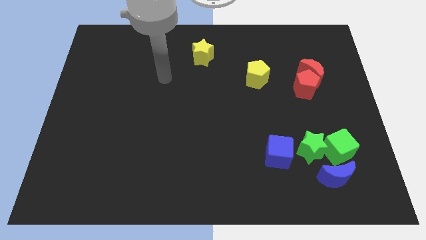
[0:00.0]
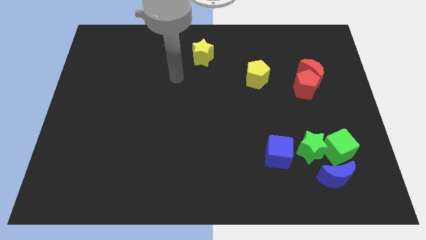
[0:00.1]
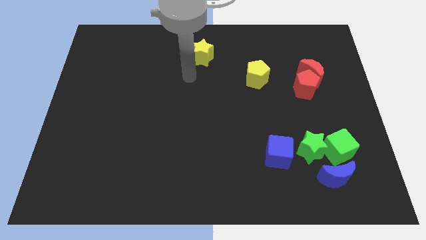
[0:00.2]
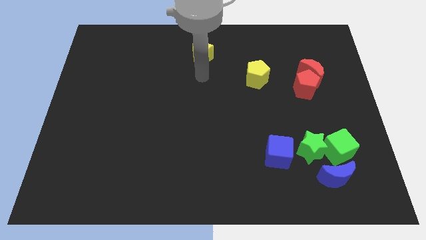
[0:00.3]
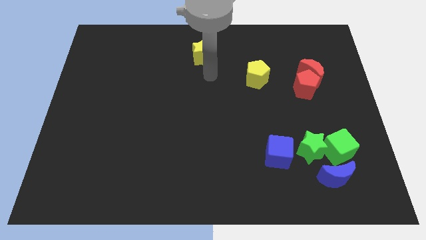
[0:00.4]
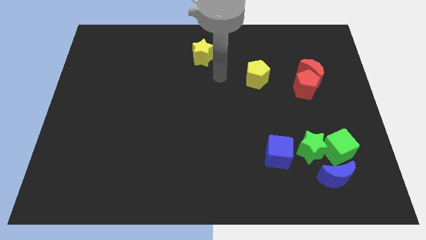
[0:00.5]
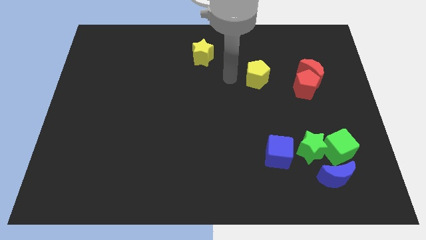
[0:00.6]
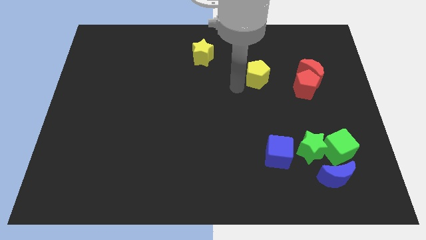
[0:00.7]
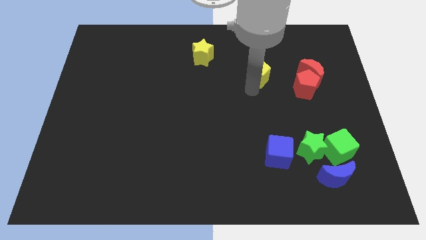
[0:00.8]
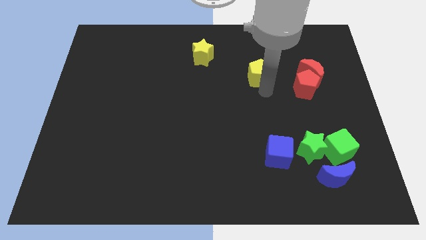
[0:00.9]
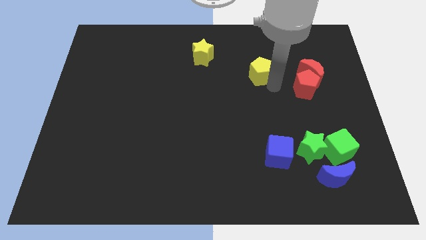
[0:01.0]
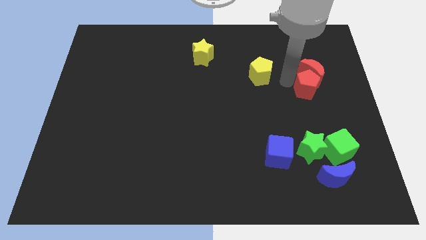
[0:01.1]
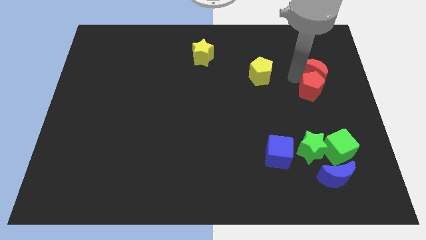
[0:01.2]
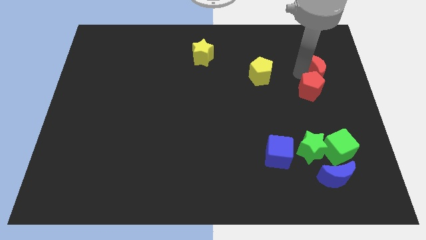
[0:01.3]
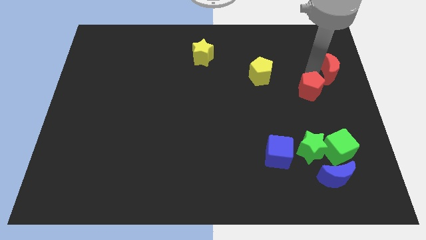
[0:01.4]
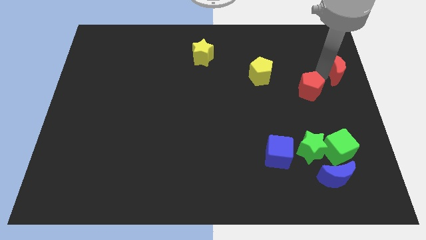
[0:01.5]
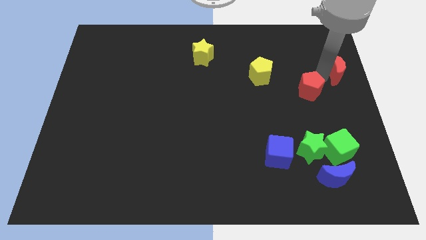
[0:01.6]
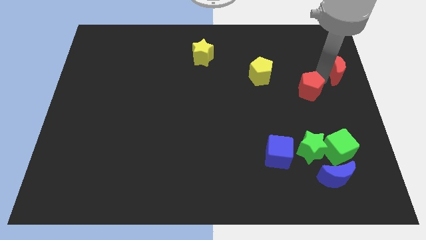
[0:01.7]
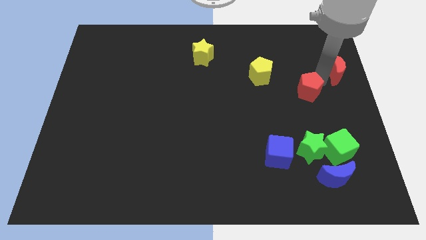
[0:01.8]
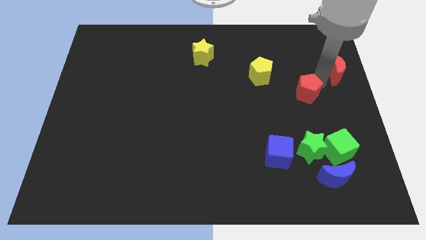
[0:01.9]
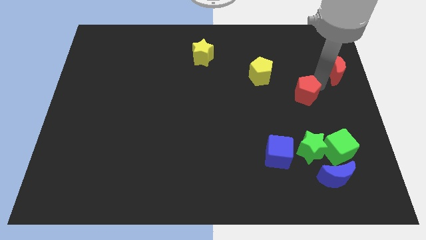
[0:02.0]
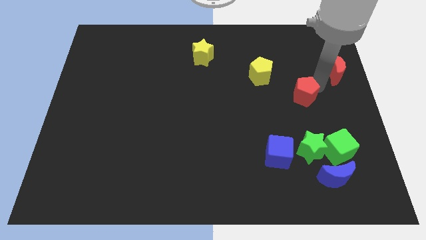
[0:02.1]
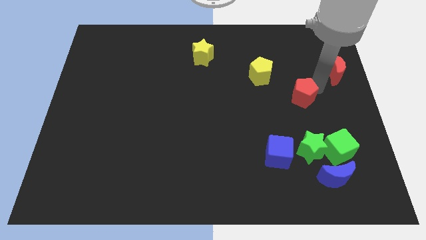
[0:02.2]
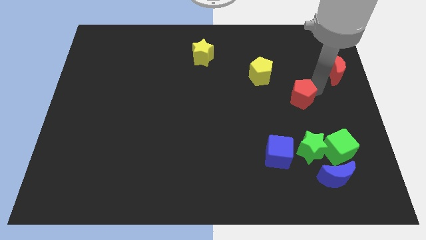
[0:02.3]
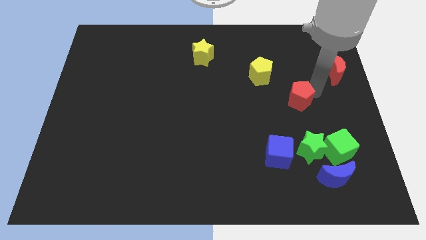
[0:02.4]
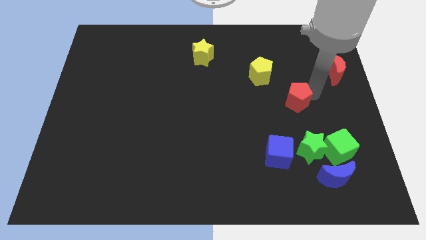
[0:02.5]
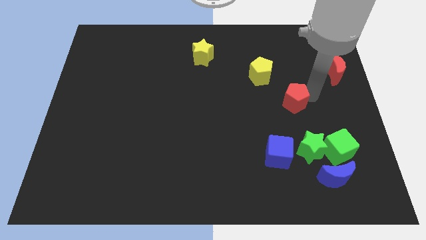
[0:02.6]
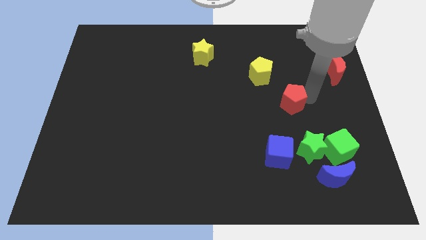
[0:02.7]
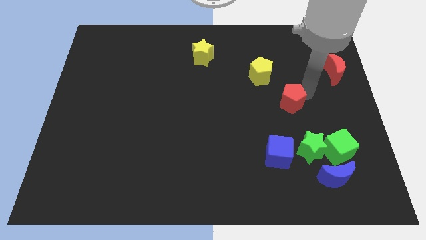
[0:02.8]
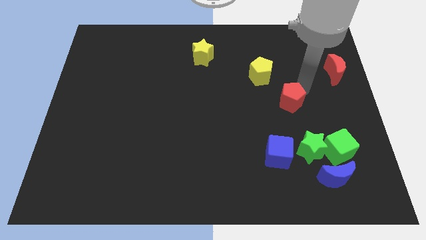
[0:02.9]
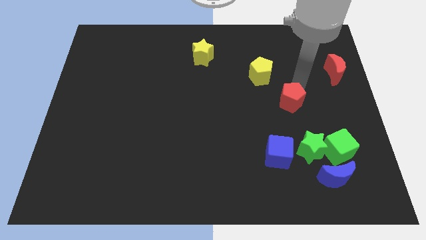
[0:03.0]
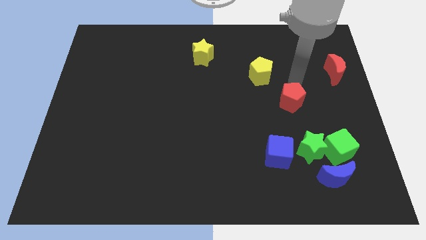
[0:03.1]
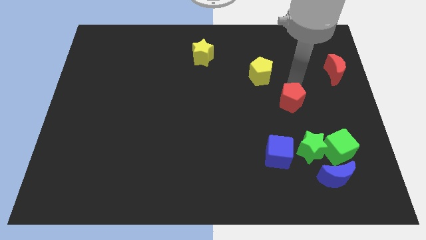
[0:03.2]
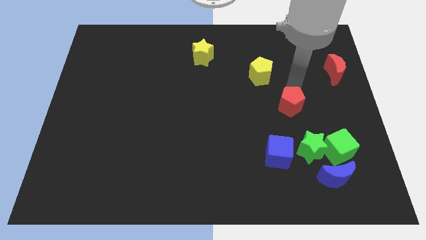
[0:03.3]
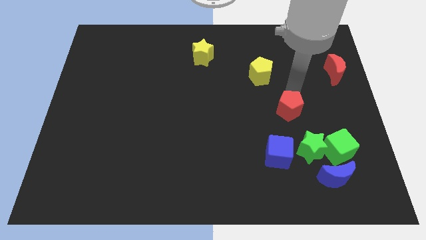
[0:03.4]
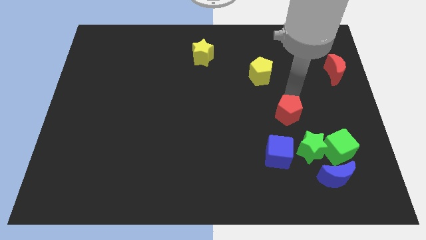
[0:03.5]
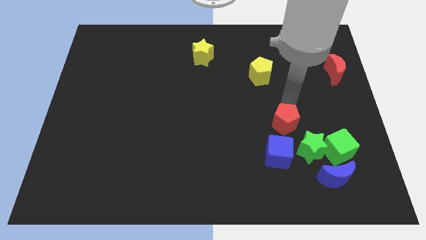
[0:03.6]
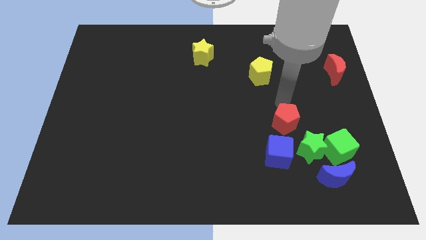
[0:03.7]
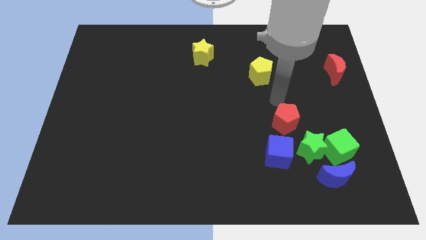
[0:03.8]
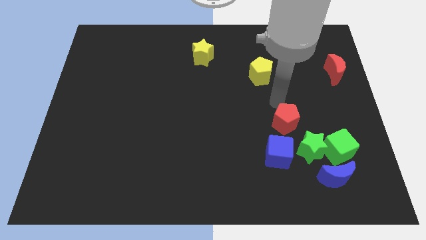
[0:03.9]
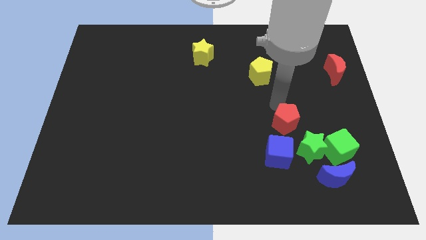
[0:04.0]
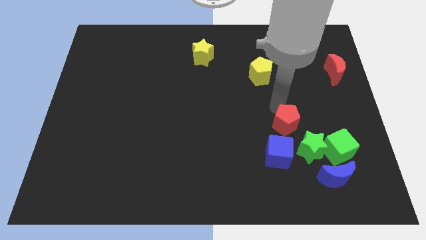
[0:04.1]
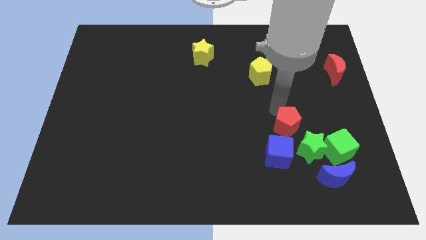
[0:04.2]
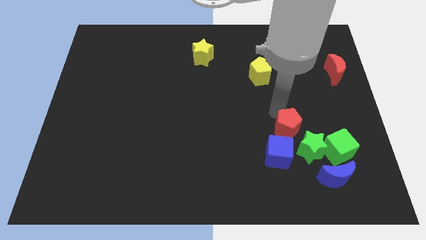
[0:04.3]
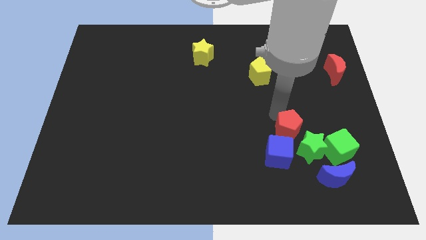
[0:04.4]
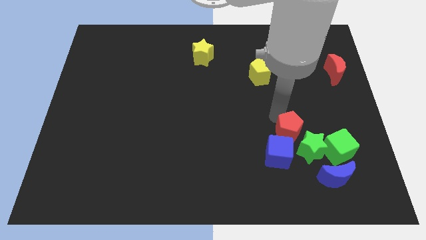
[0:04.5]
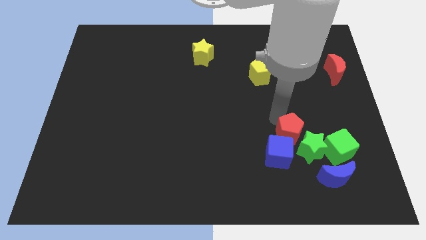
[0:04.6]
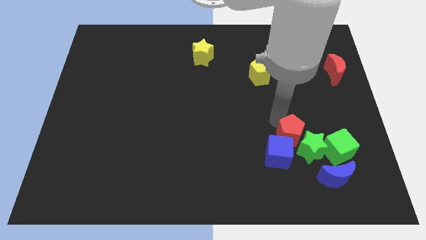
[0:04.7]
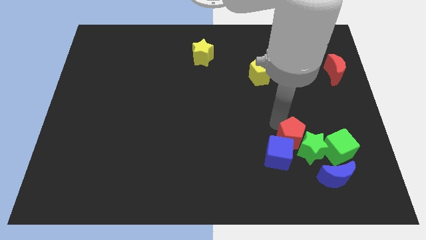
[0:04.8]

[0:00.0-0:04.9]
move the red pentagon to the top left of the blue moon

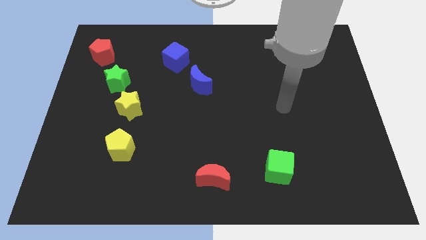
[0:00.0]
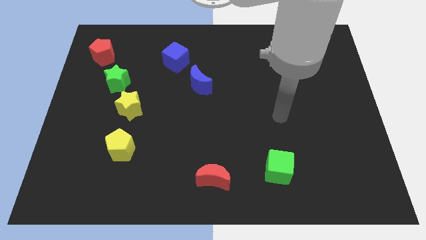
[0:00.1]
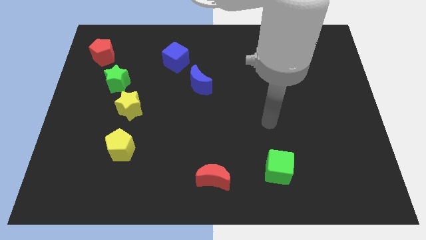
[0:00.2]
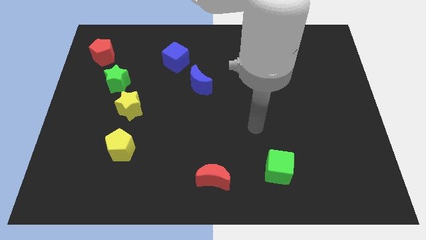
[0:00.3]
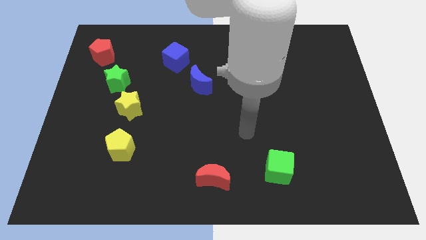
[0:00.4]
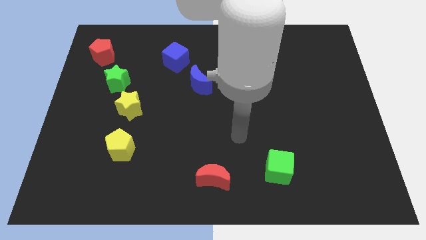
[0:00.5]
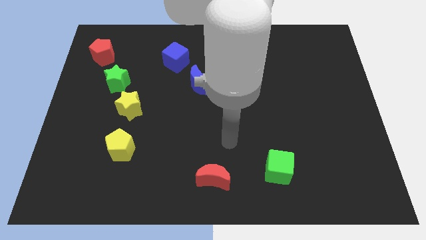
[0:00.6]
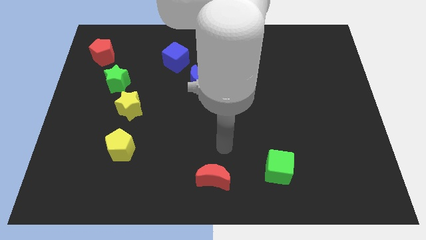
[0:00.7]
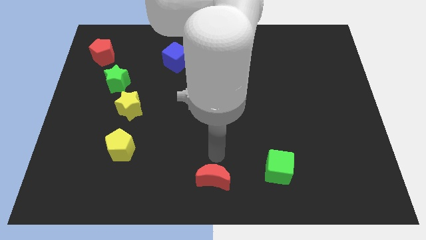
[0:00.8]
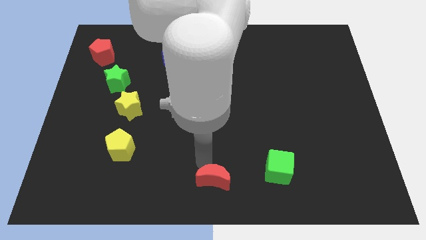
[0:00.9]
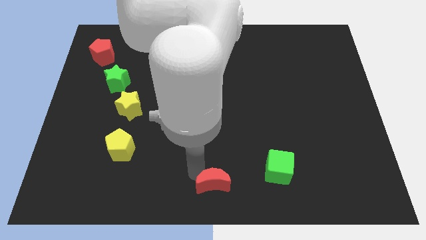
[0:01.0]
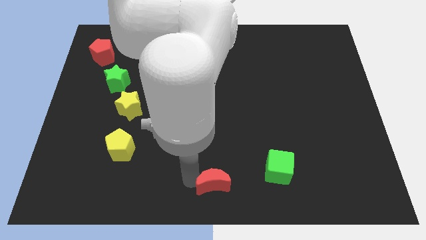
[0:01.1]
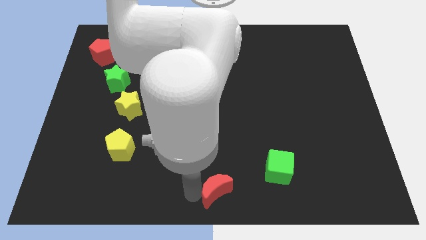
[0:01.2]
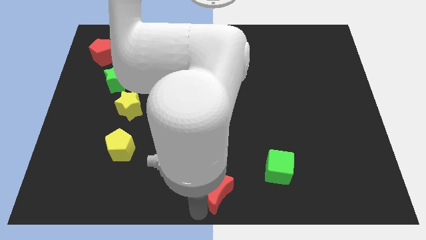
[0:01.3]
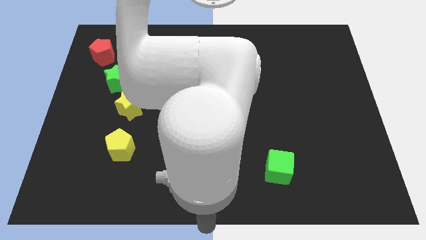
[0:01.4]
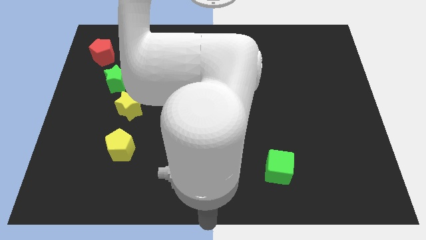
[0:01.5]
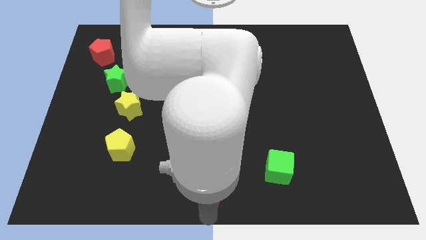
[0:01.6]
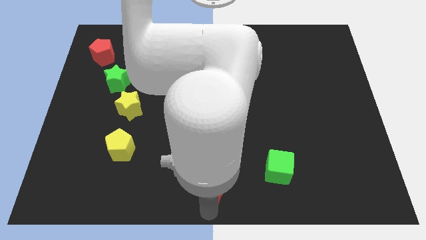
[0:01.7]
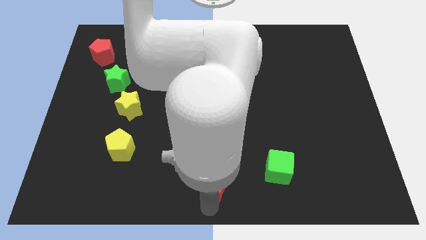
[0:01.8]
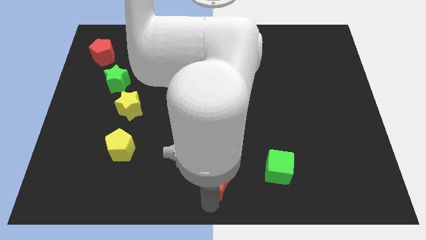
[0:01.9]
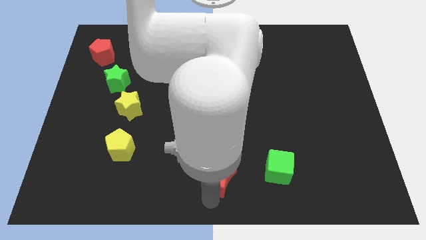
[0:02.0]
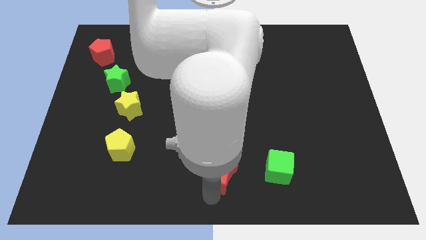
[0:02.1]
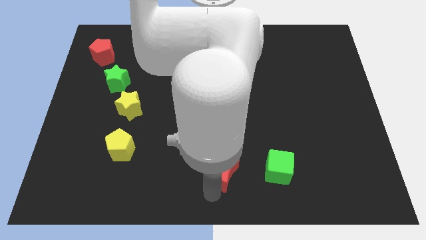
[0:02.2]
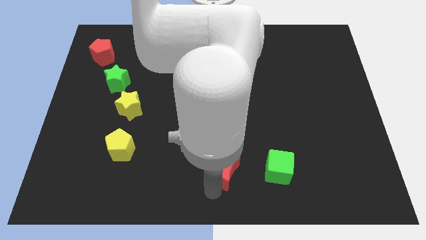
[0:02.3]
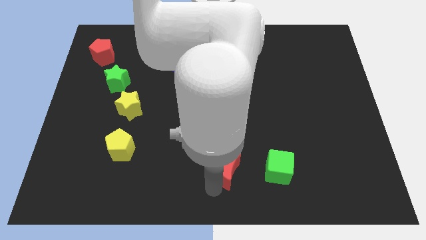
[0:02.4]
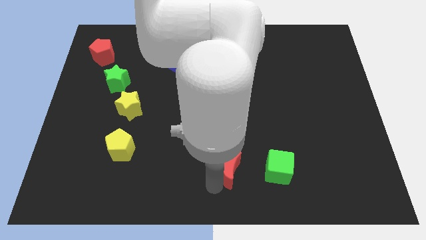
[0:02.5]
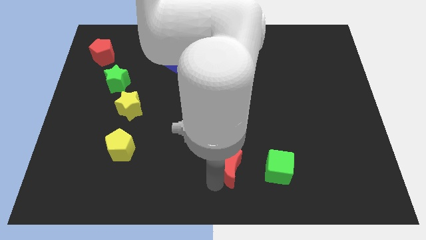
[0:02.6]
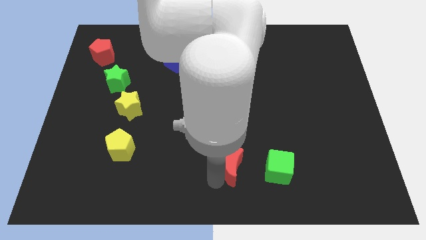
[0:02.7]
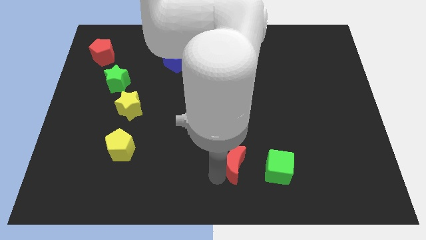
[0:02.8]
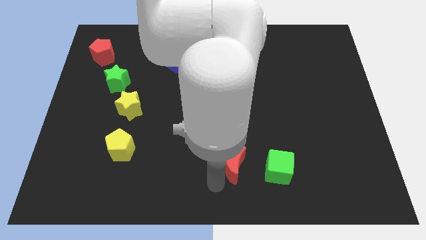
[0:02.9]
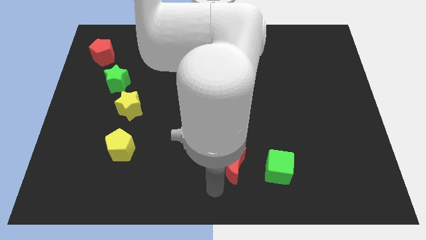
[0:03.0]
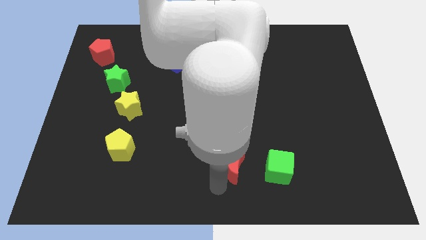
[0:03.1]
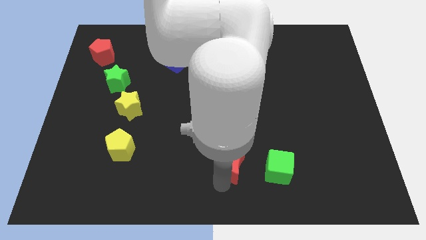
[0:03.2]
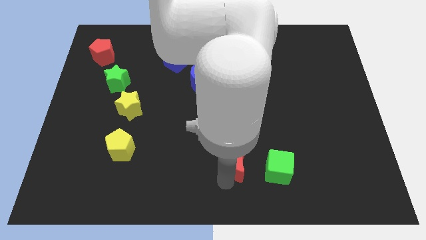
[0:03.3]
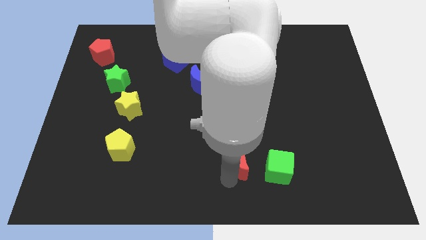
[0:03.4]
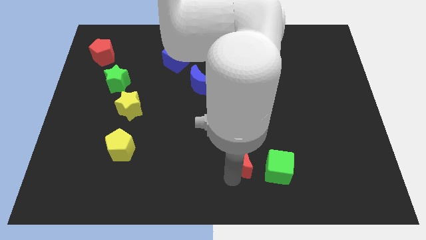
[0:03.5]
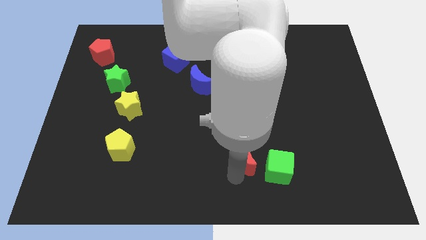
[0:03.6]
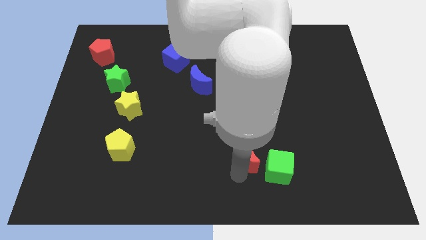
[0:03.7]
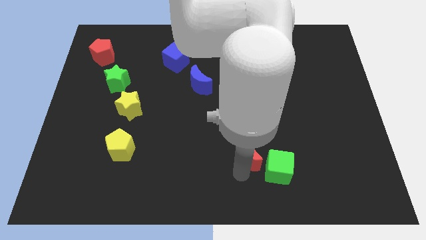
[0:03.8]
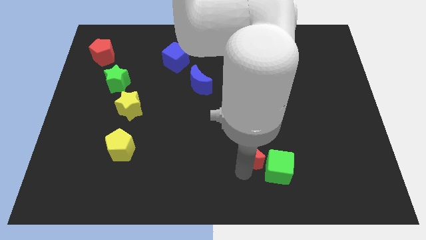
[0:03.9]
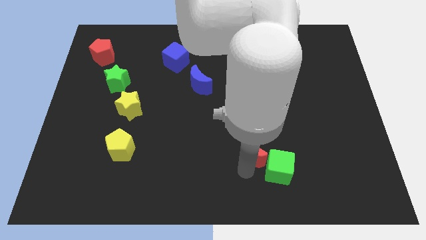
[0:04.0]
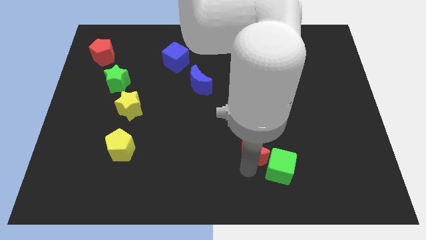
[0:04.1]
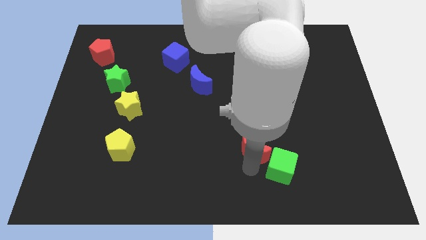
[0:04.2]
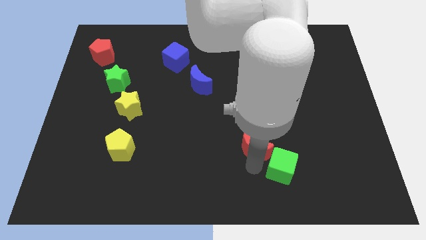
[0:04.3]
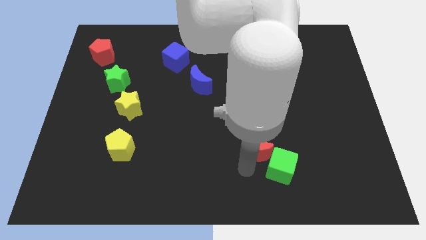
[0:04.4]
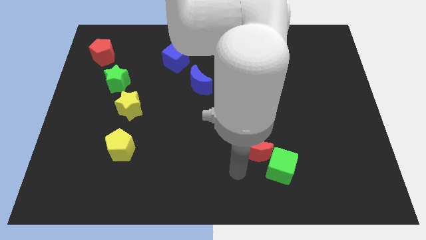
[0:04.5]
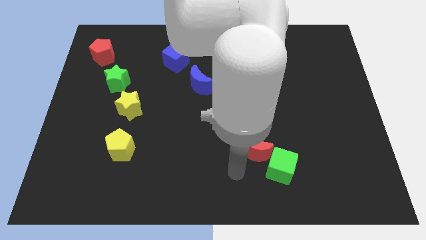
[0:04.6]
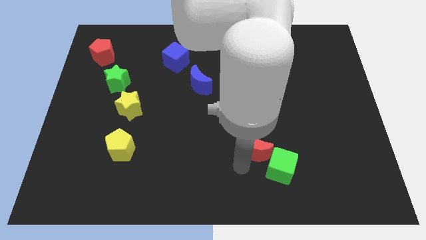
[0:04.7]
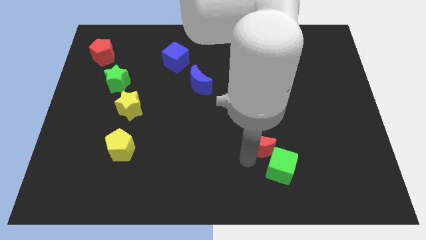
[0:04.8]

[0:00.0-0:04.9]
push the red moon to the top of the green cube
